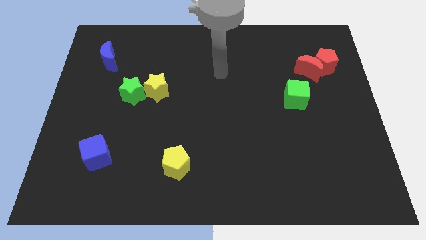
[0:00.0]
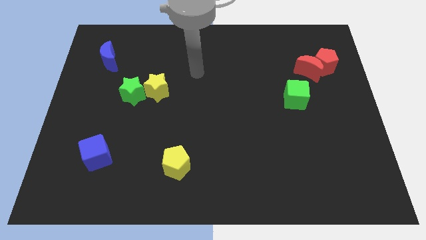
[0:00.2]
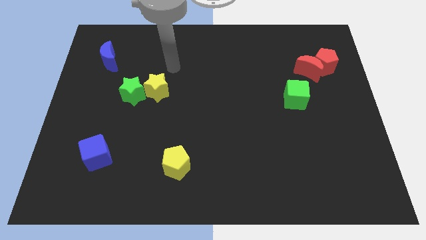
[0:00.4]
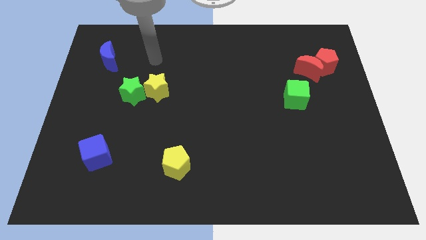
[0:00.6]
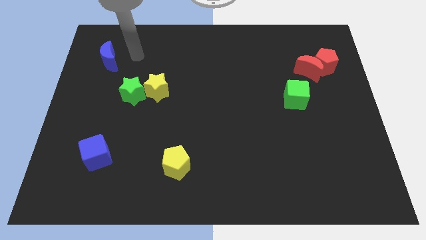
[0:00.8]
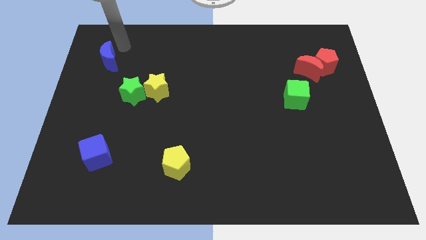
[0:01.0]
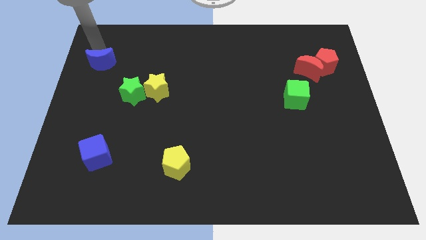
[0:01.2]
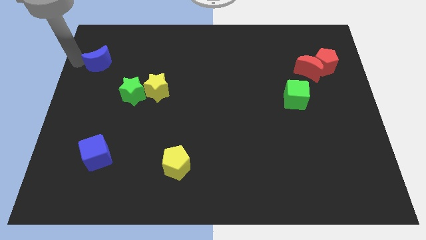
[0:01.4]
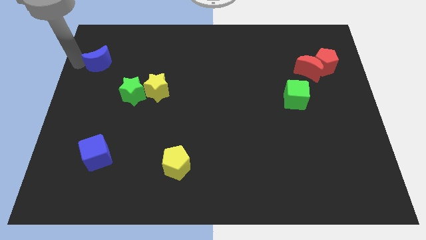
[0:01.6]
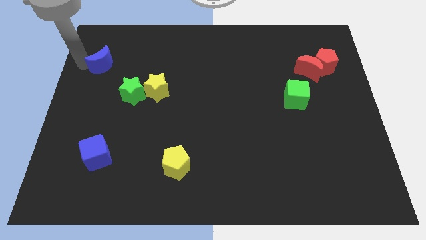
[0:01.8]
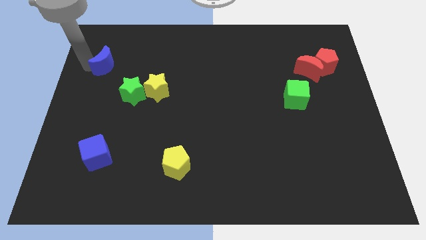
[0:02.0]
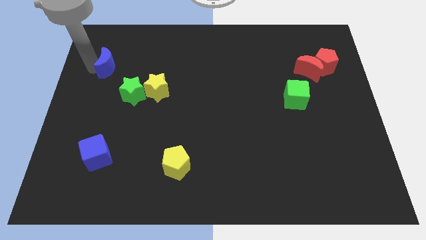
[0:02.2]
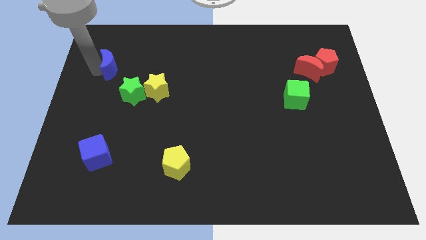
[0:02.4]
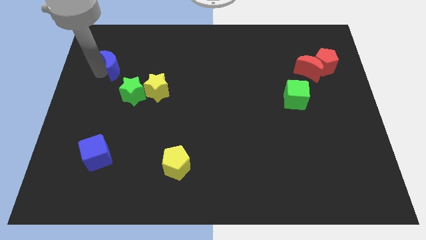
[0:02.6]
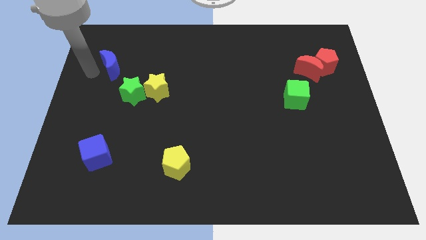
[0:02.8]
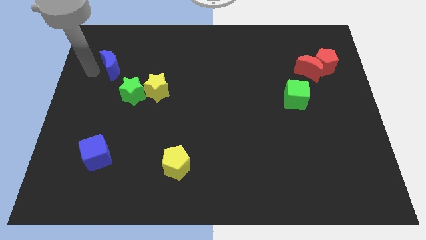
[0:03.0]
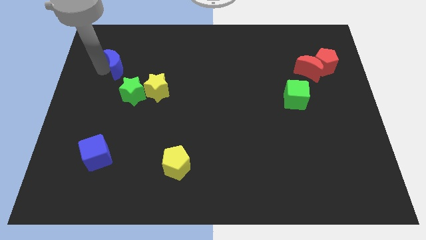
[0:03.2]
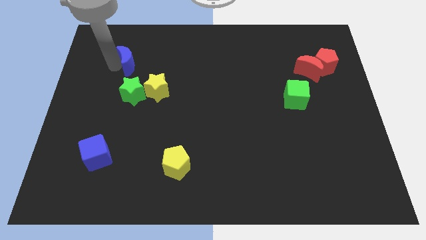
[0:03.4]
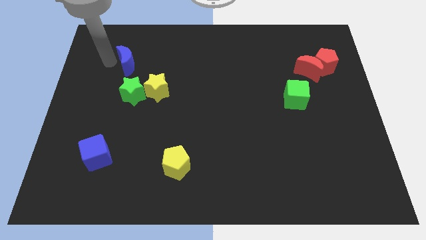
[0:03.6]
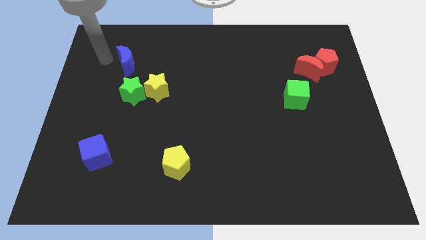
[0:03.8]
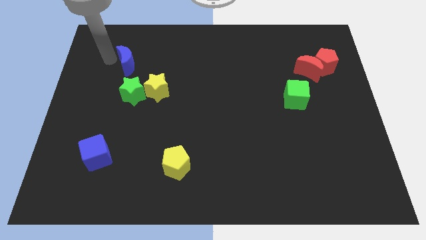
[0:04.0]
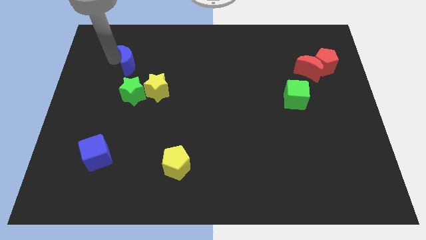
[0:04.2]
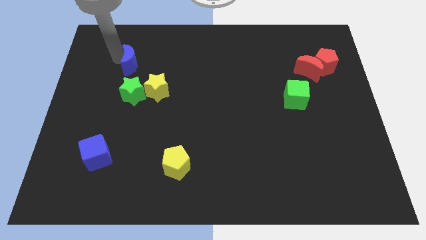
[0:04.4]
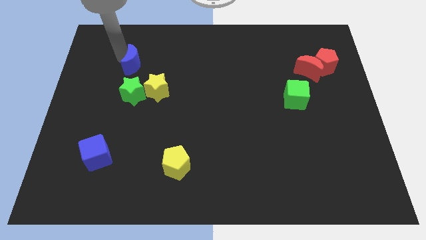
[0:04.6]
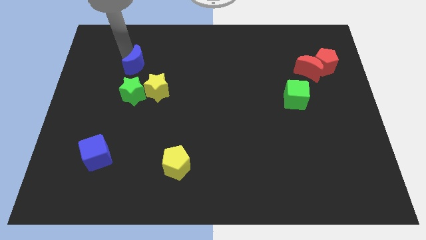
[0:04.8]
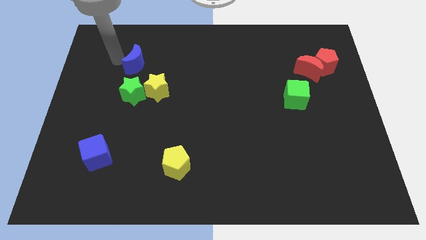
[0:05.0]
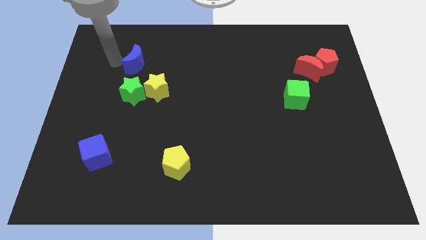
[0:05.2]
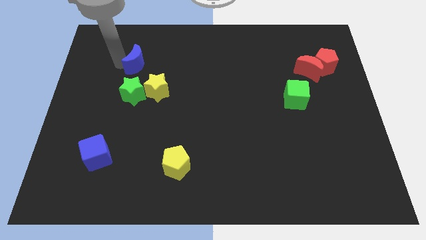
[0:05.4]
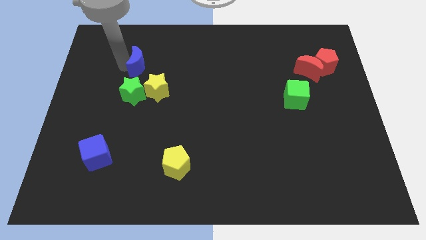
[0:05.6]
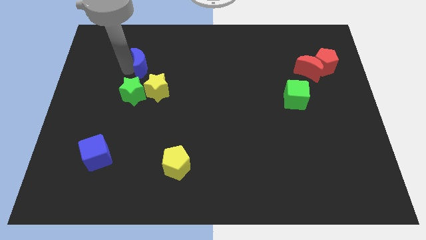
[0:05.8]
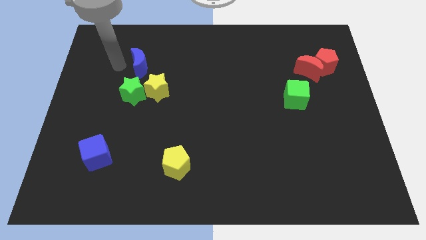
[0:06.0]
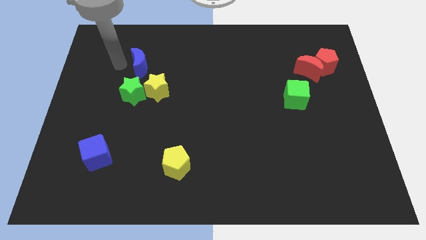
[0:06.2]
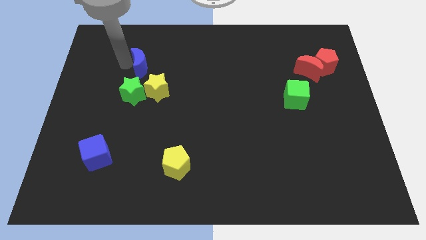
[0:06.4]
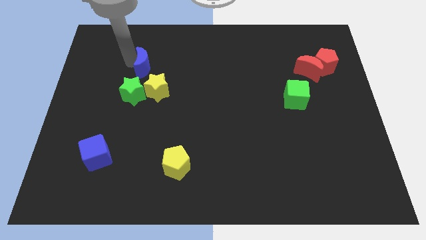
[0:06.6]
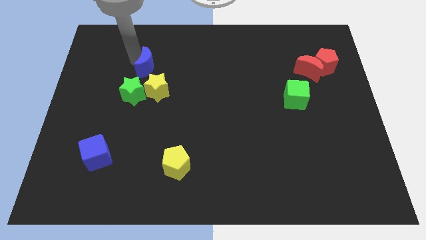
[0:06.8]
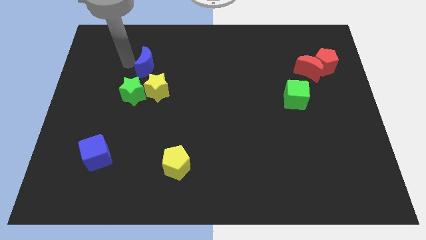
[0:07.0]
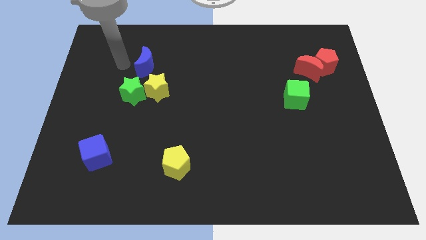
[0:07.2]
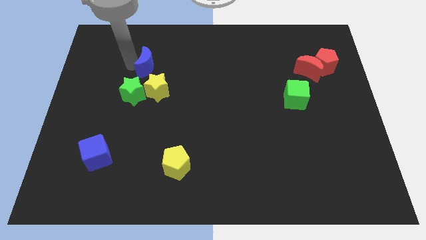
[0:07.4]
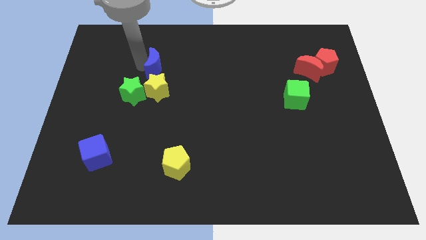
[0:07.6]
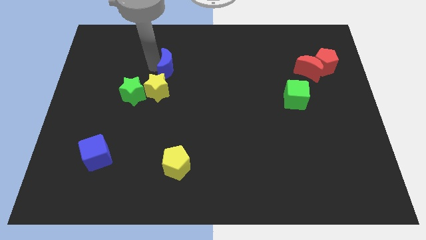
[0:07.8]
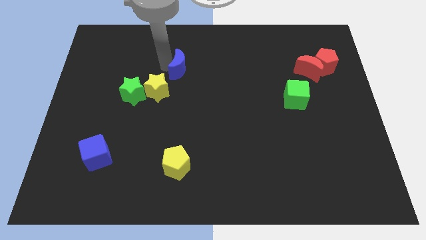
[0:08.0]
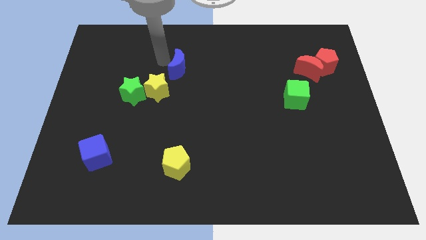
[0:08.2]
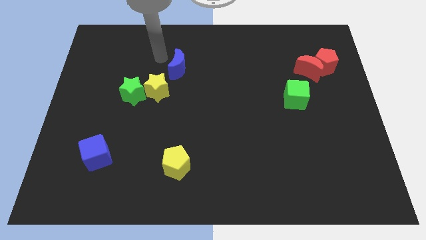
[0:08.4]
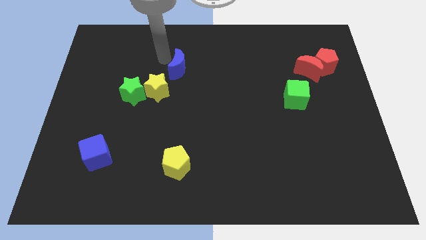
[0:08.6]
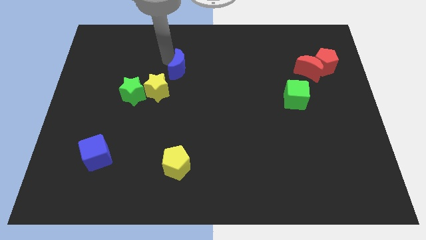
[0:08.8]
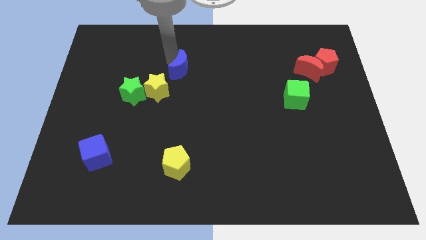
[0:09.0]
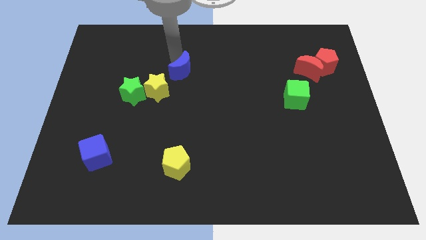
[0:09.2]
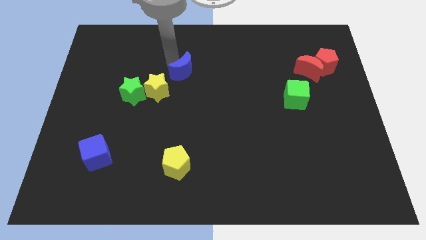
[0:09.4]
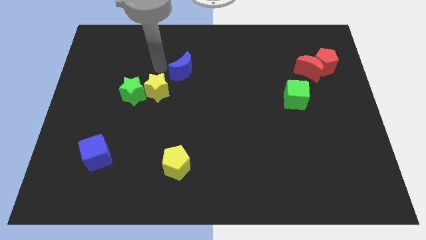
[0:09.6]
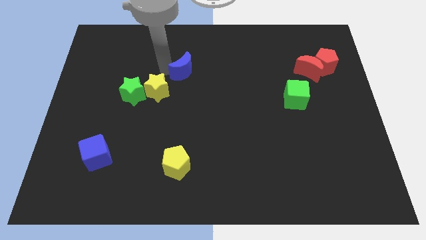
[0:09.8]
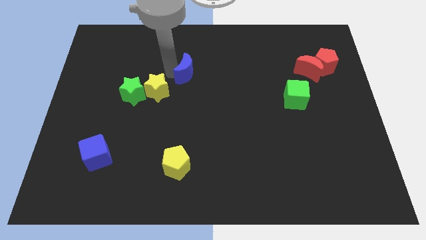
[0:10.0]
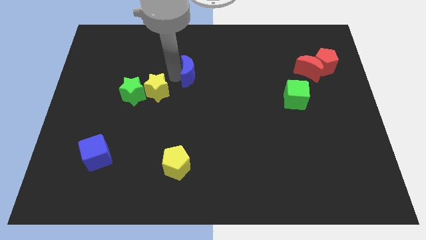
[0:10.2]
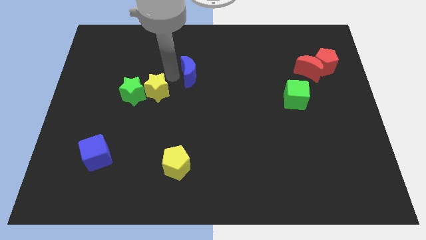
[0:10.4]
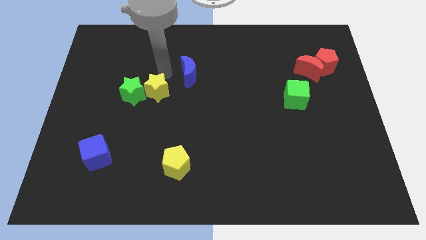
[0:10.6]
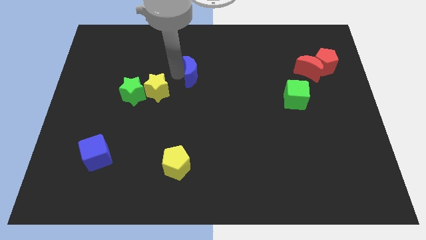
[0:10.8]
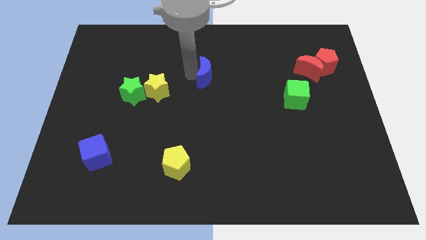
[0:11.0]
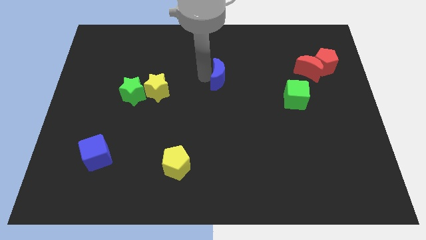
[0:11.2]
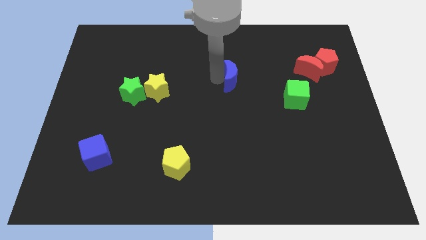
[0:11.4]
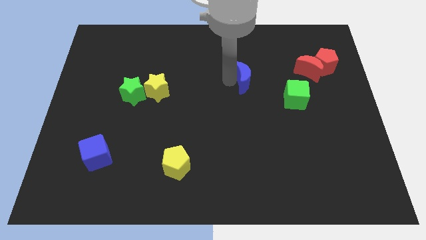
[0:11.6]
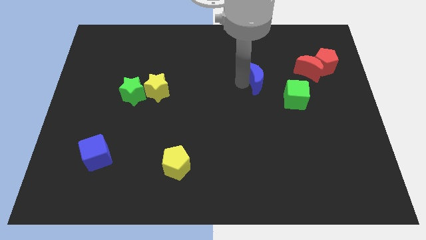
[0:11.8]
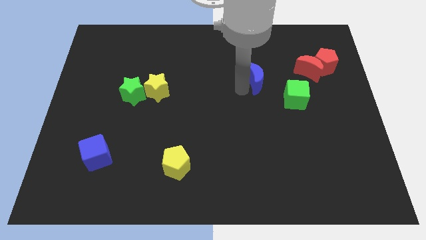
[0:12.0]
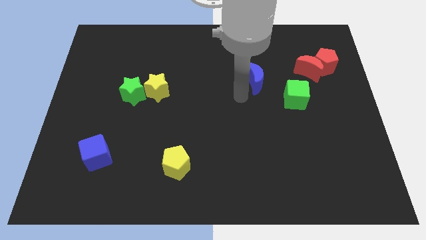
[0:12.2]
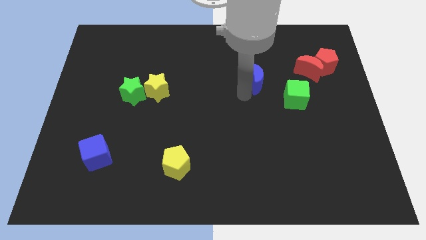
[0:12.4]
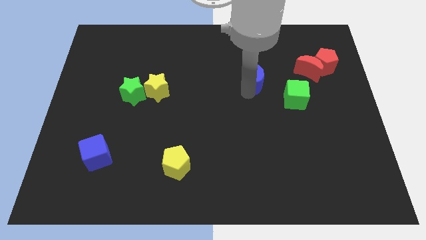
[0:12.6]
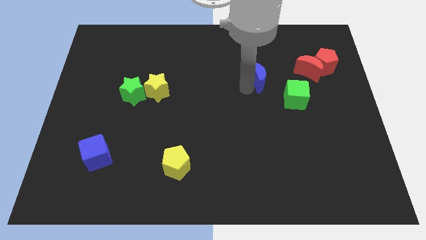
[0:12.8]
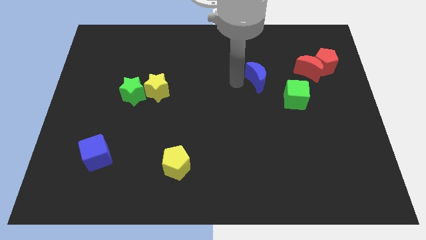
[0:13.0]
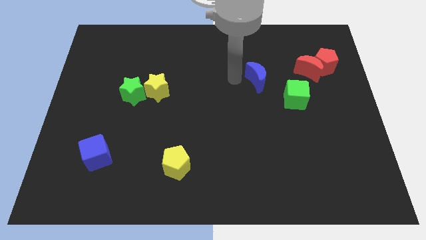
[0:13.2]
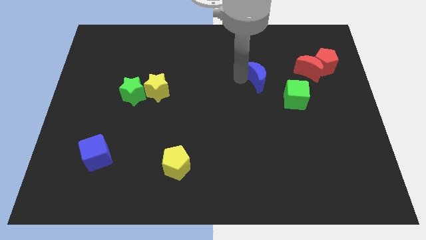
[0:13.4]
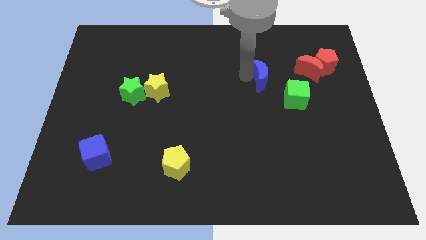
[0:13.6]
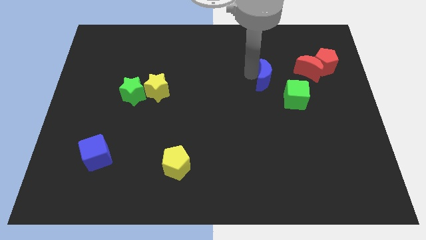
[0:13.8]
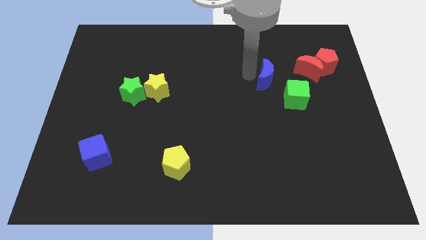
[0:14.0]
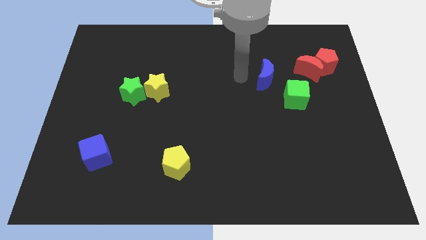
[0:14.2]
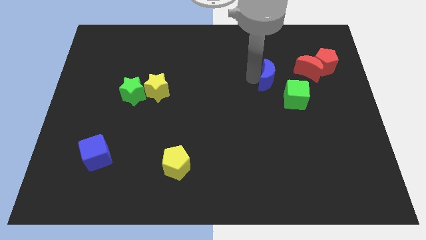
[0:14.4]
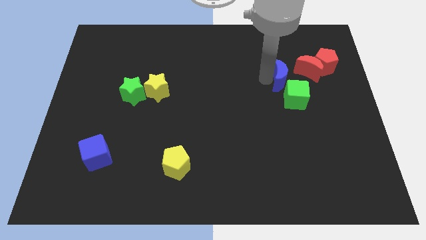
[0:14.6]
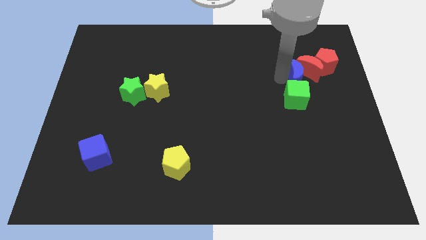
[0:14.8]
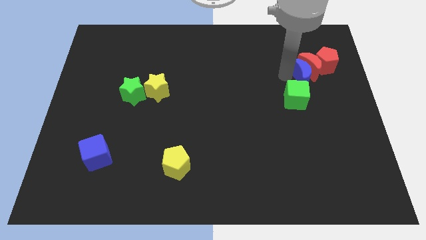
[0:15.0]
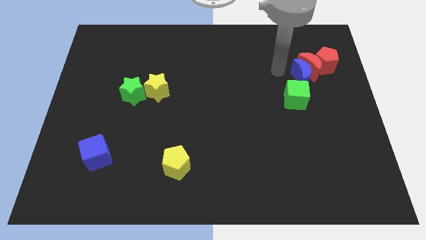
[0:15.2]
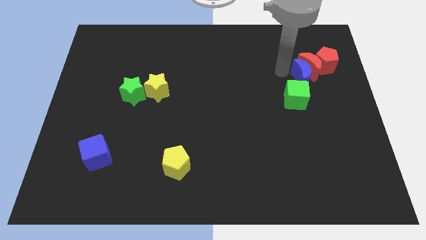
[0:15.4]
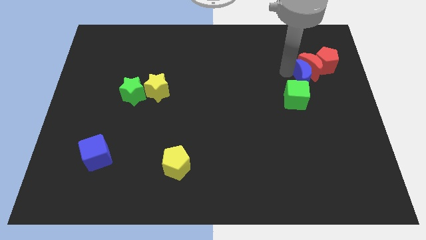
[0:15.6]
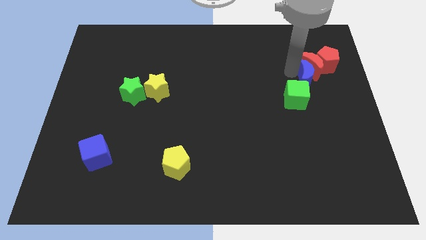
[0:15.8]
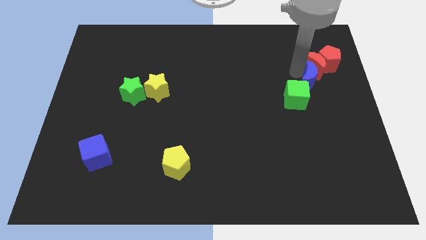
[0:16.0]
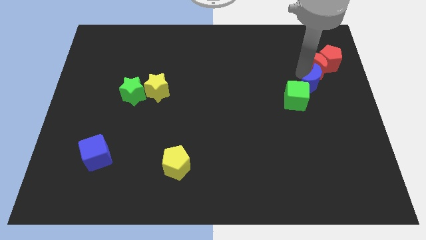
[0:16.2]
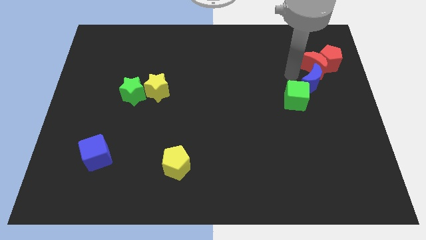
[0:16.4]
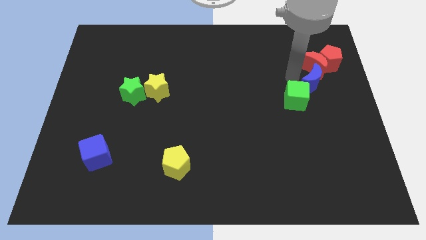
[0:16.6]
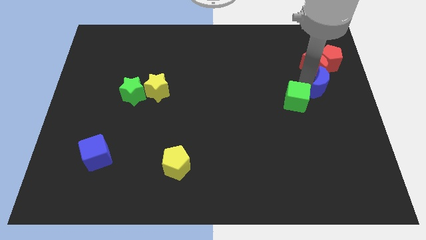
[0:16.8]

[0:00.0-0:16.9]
move the blue moon to the center right
